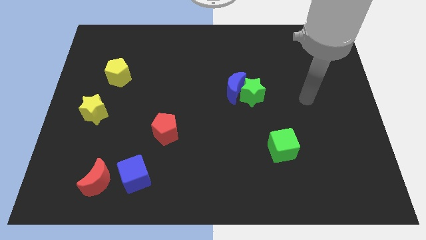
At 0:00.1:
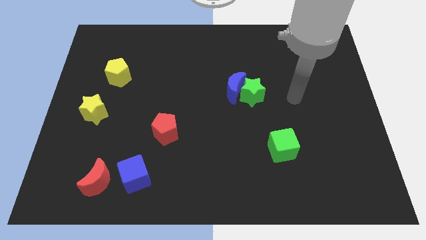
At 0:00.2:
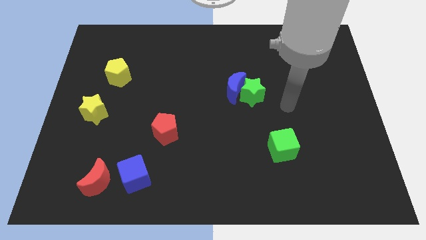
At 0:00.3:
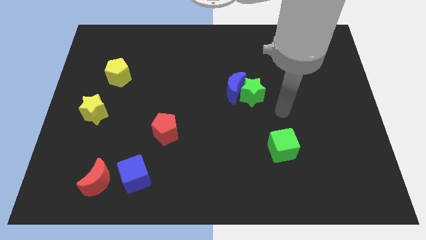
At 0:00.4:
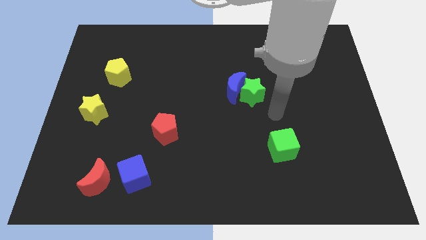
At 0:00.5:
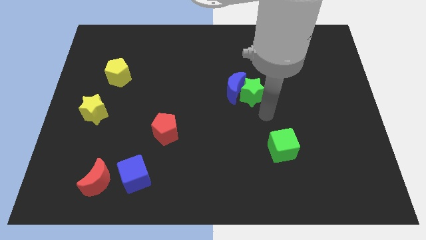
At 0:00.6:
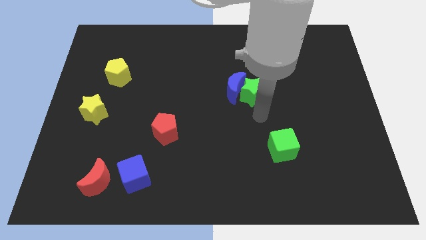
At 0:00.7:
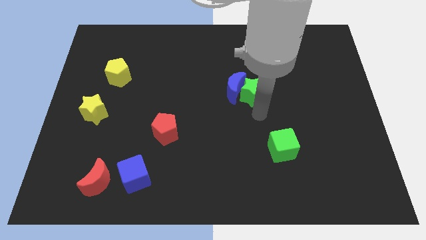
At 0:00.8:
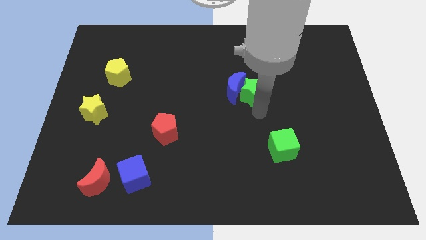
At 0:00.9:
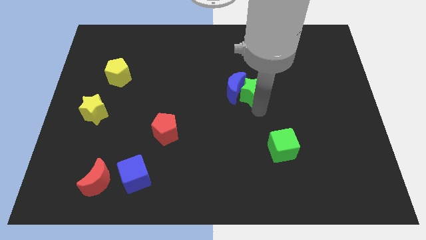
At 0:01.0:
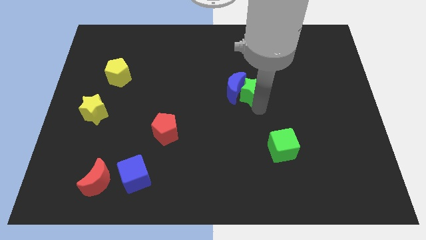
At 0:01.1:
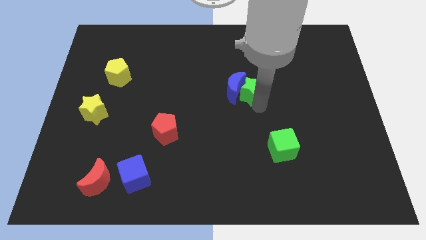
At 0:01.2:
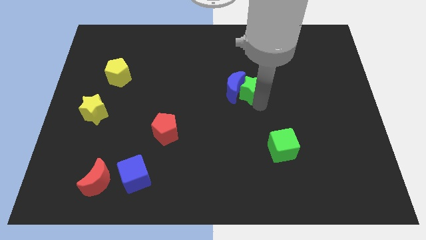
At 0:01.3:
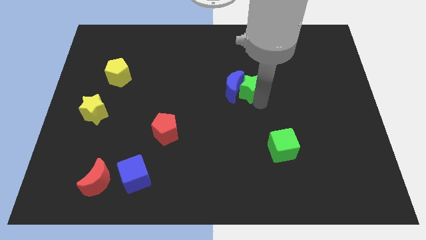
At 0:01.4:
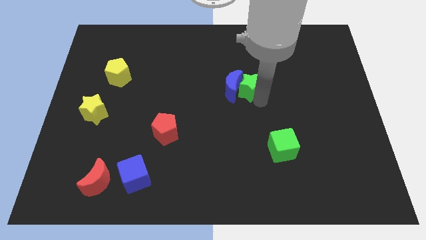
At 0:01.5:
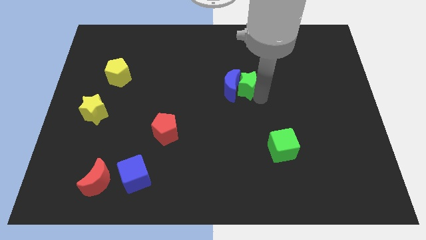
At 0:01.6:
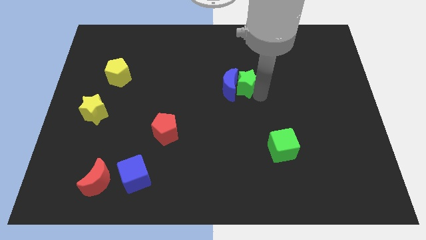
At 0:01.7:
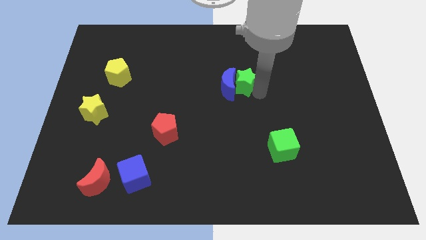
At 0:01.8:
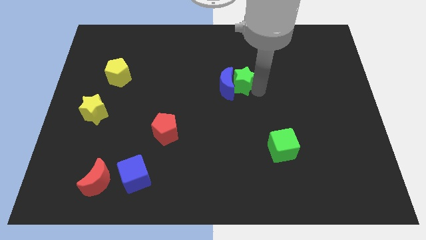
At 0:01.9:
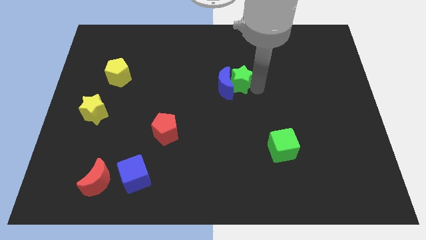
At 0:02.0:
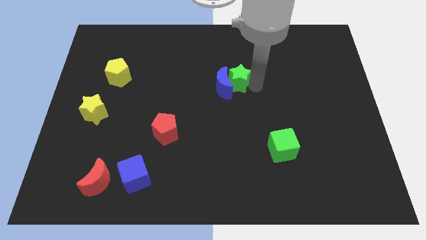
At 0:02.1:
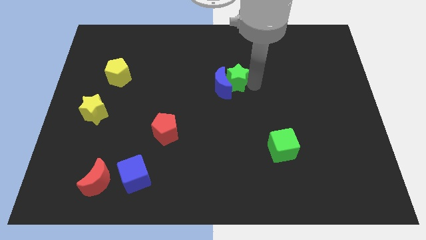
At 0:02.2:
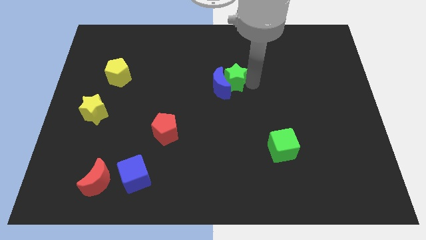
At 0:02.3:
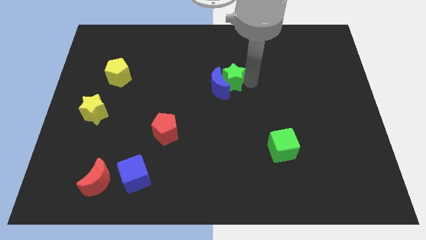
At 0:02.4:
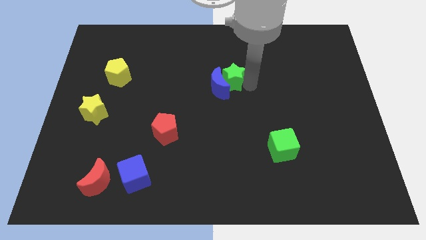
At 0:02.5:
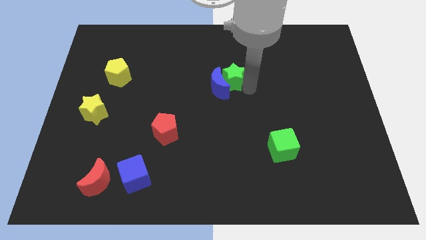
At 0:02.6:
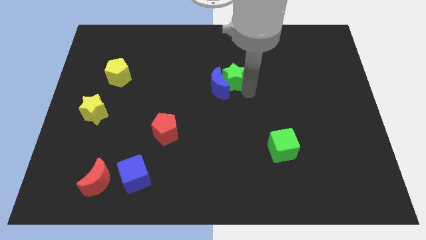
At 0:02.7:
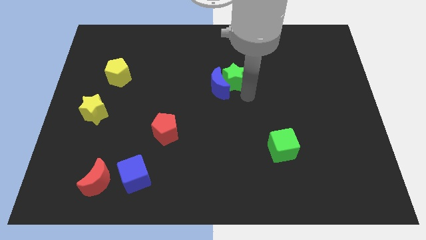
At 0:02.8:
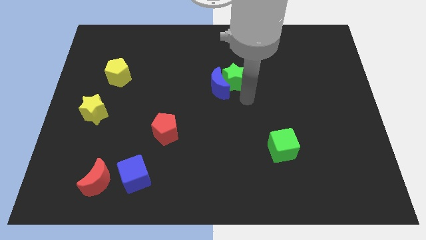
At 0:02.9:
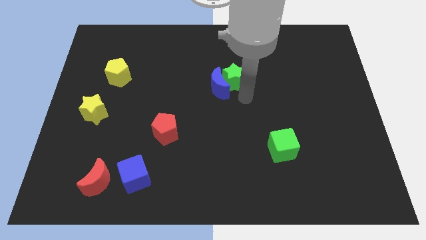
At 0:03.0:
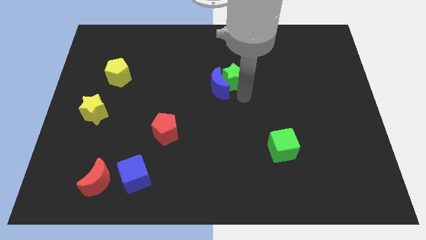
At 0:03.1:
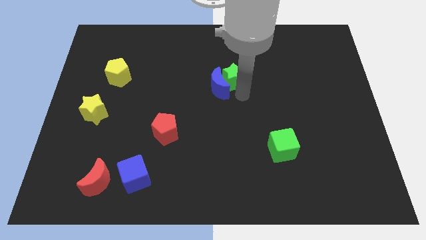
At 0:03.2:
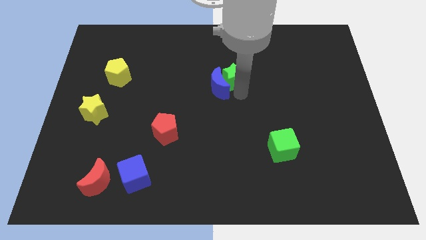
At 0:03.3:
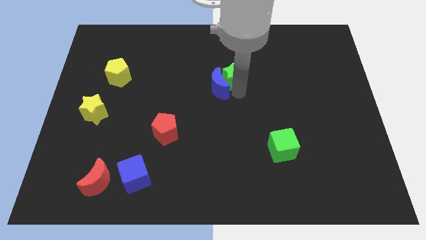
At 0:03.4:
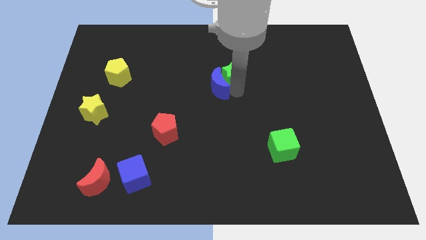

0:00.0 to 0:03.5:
push the green star a little bit up and to the left

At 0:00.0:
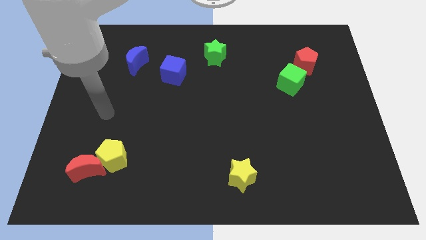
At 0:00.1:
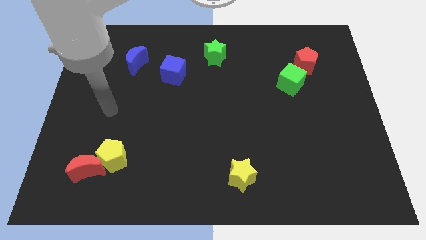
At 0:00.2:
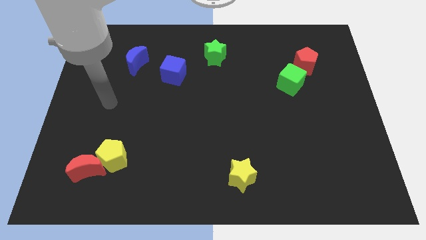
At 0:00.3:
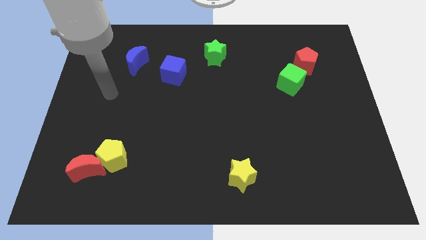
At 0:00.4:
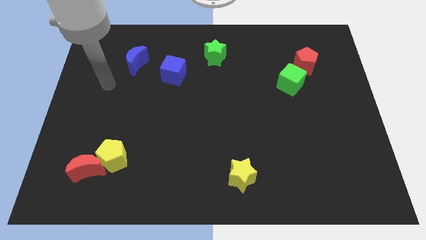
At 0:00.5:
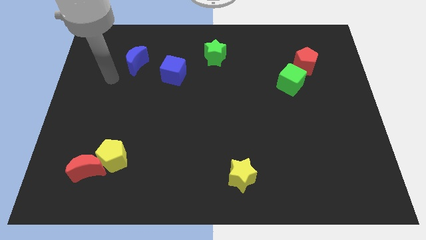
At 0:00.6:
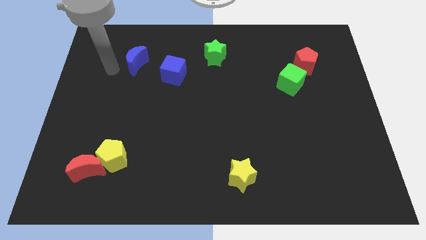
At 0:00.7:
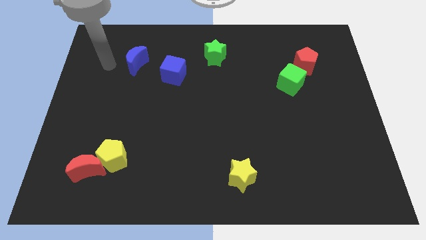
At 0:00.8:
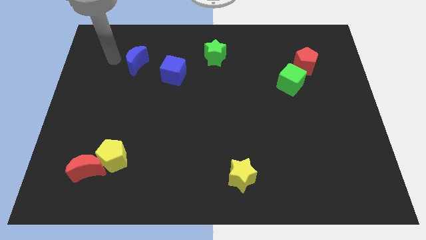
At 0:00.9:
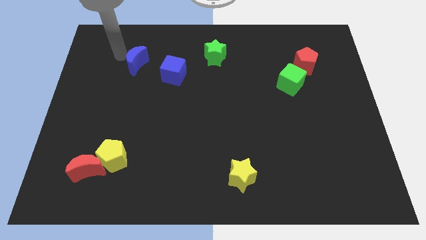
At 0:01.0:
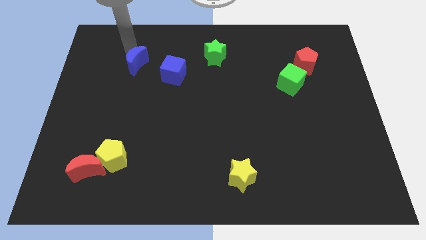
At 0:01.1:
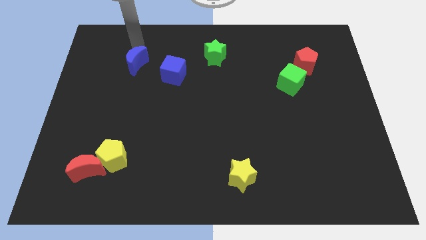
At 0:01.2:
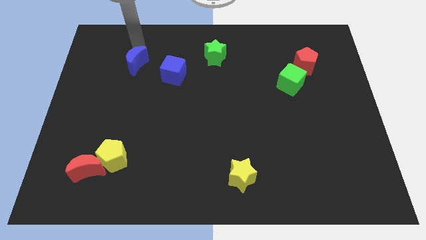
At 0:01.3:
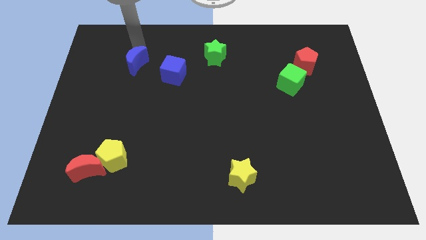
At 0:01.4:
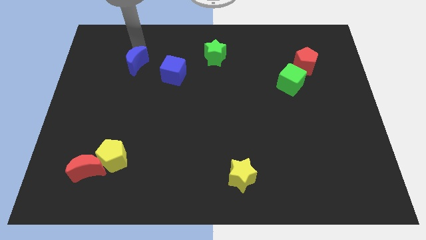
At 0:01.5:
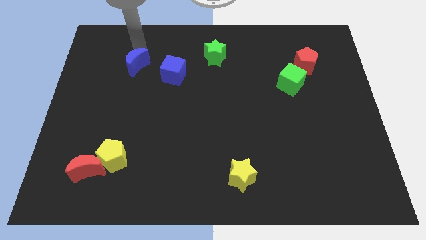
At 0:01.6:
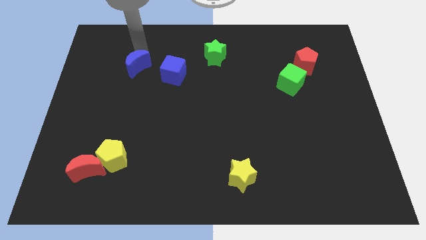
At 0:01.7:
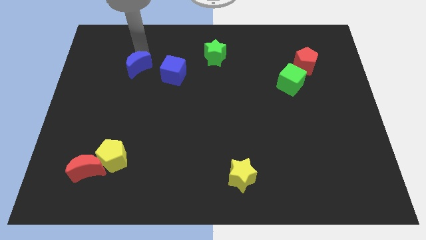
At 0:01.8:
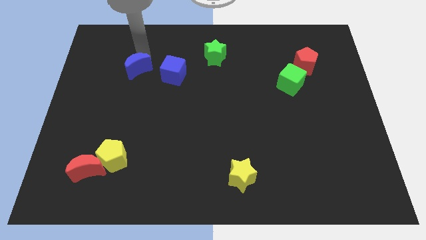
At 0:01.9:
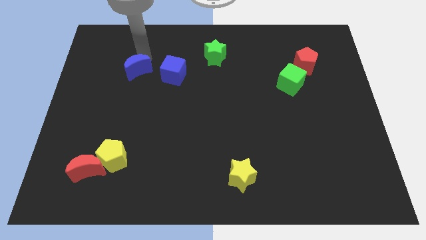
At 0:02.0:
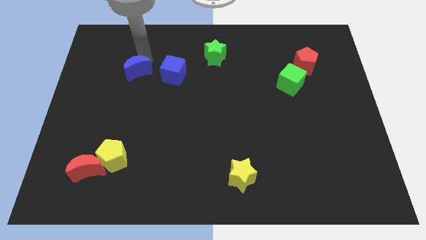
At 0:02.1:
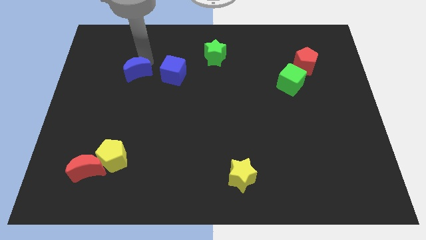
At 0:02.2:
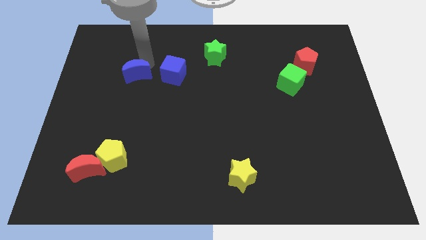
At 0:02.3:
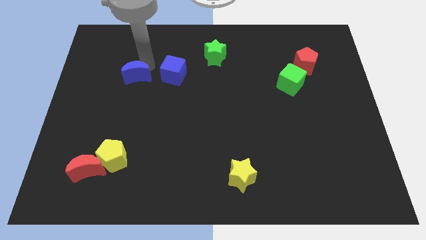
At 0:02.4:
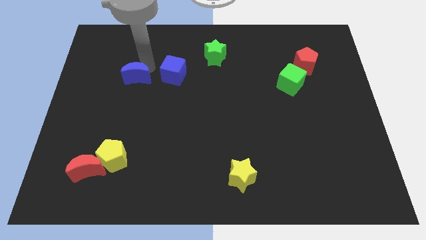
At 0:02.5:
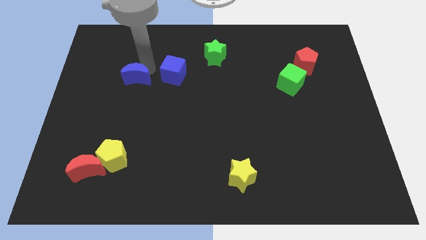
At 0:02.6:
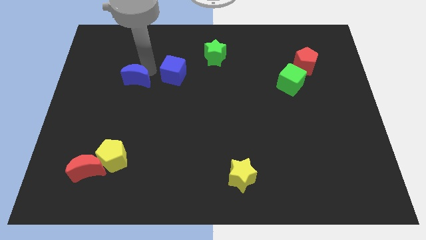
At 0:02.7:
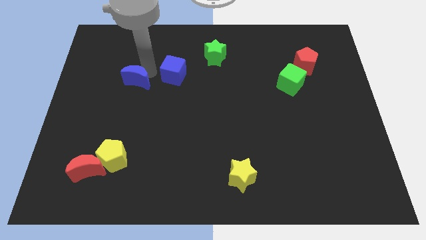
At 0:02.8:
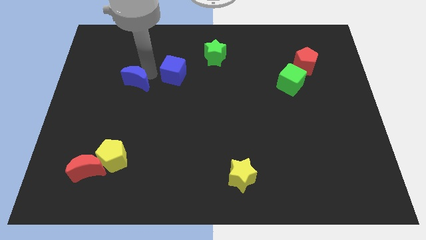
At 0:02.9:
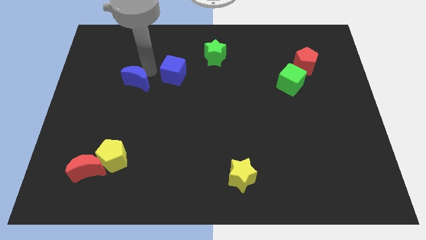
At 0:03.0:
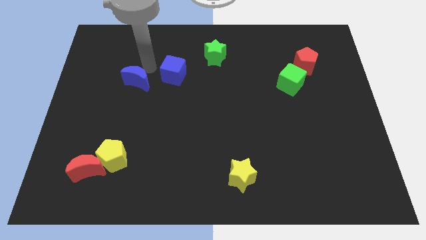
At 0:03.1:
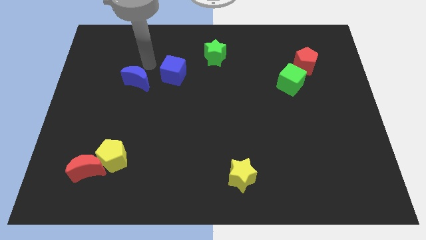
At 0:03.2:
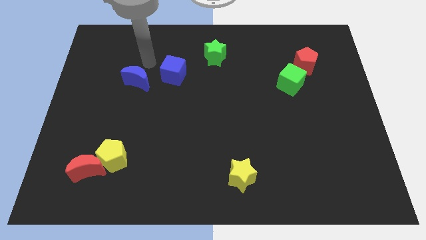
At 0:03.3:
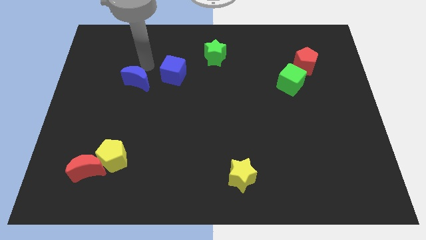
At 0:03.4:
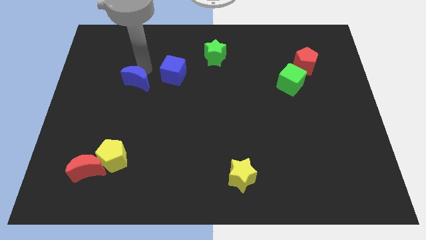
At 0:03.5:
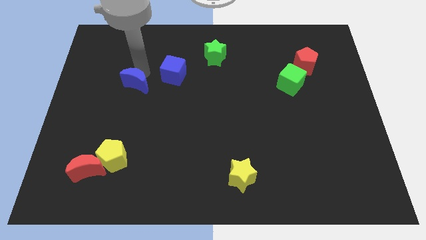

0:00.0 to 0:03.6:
slide the blue moon downwards somewhat

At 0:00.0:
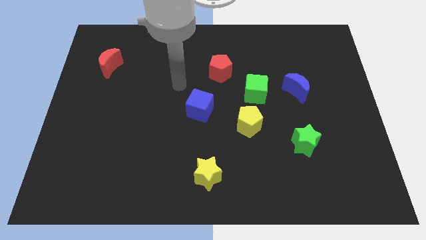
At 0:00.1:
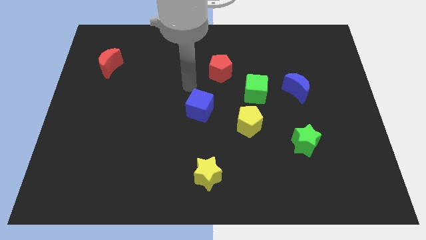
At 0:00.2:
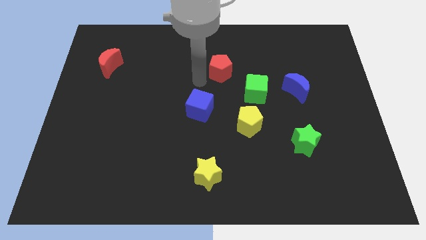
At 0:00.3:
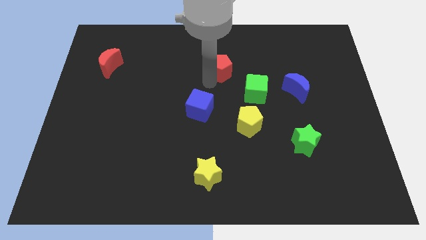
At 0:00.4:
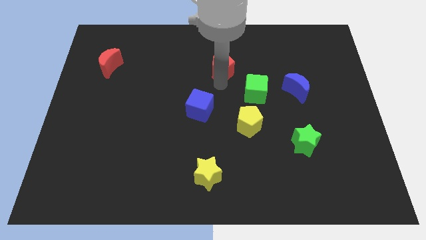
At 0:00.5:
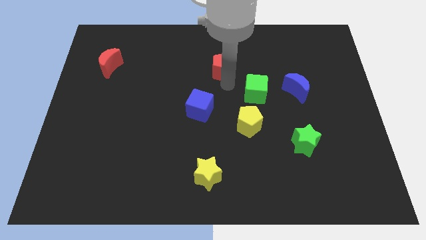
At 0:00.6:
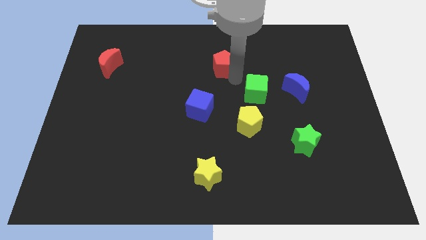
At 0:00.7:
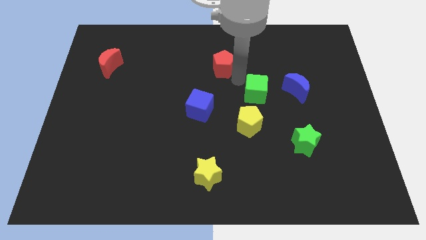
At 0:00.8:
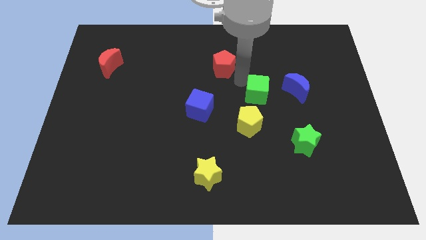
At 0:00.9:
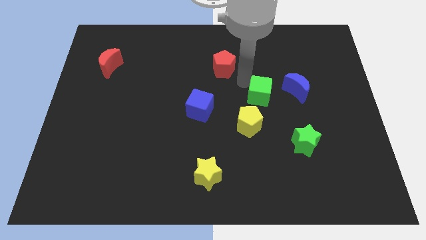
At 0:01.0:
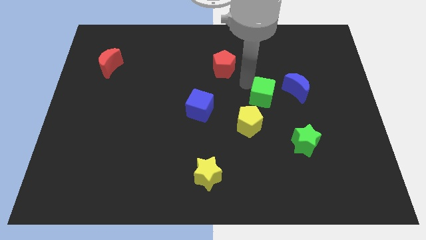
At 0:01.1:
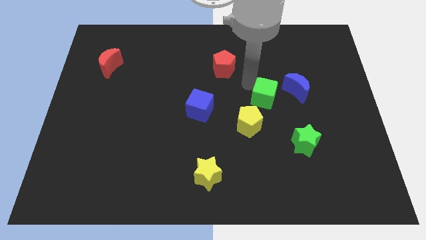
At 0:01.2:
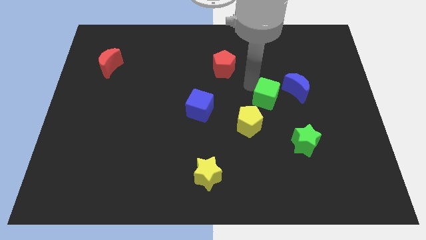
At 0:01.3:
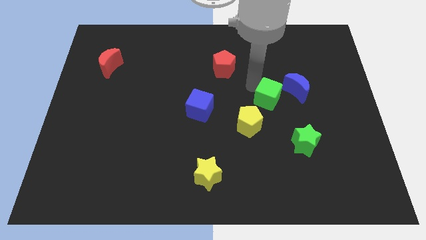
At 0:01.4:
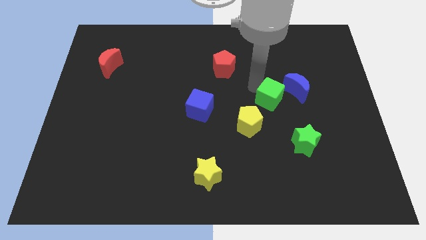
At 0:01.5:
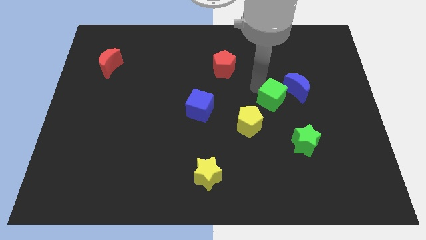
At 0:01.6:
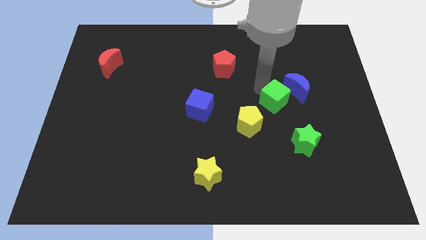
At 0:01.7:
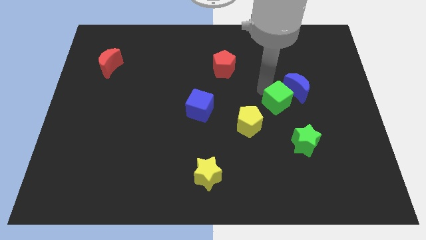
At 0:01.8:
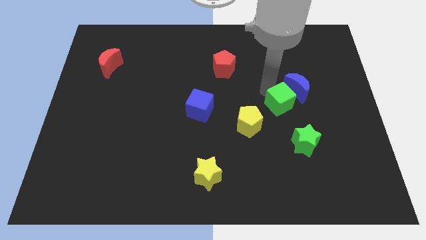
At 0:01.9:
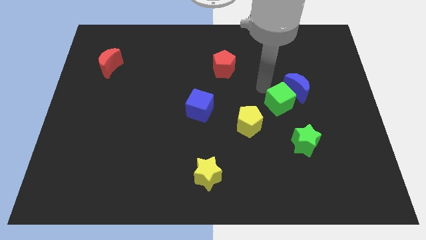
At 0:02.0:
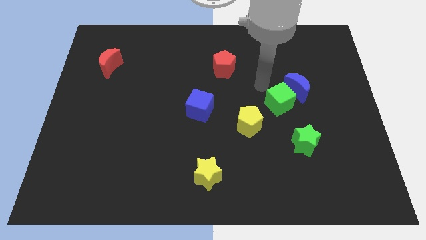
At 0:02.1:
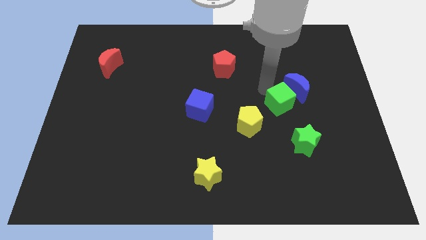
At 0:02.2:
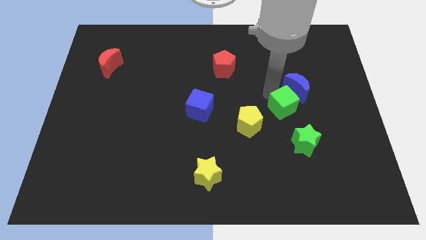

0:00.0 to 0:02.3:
slide the green cube slightly downwards and to the right
